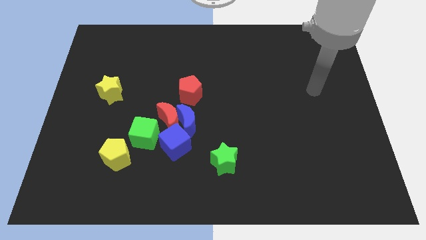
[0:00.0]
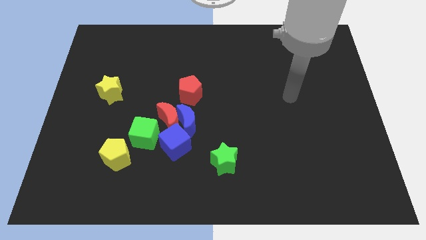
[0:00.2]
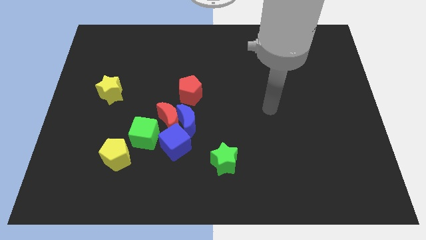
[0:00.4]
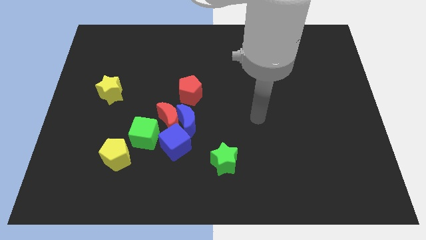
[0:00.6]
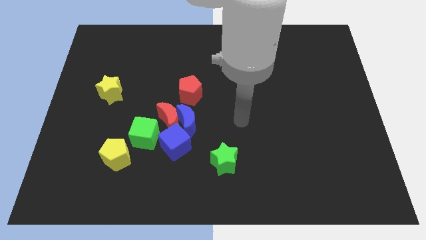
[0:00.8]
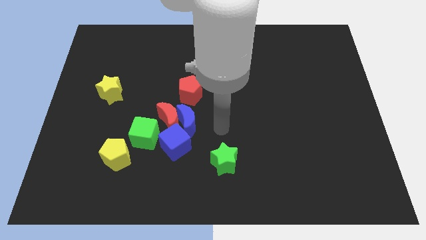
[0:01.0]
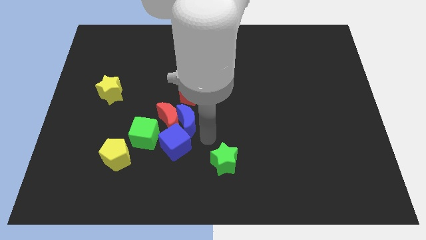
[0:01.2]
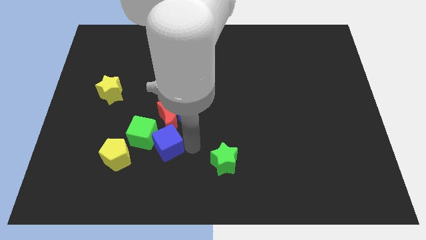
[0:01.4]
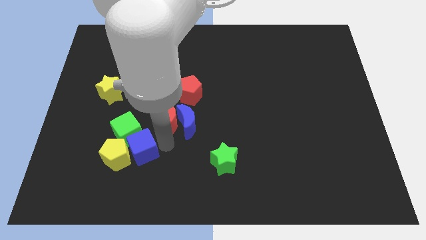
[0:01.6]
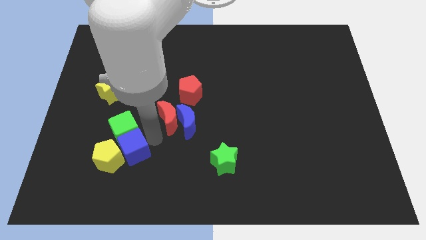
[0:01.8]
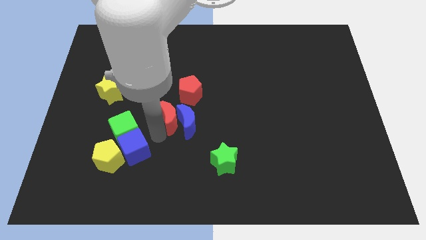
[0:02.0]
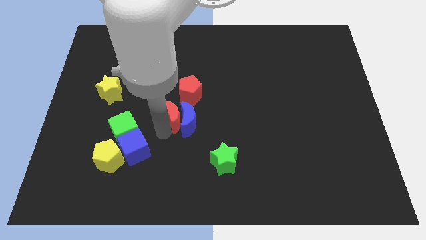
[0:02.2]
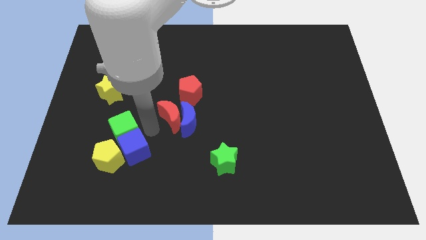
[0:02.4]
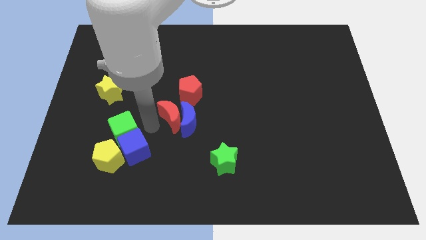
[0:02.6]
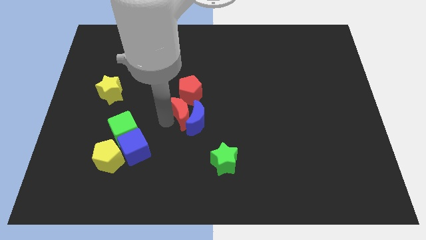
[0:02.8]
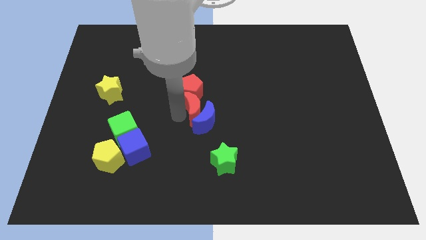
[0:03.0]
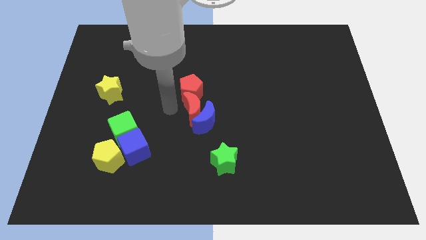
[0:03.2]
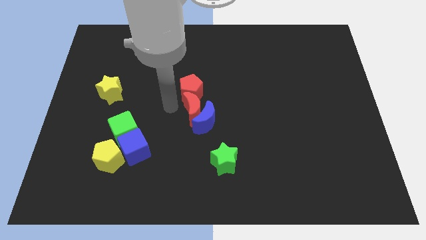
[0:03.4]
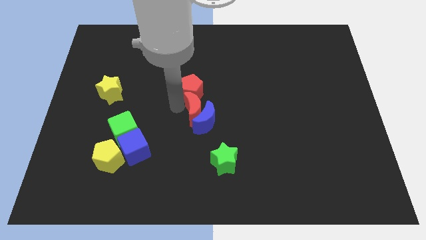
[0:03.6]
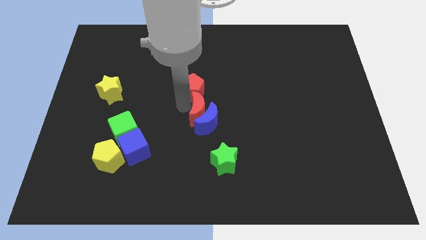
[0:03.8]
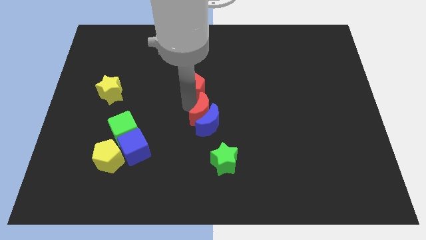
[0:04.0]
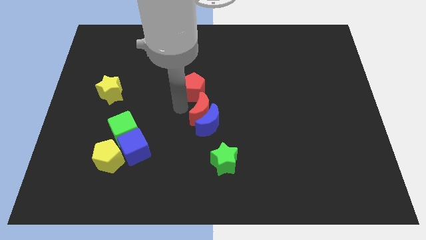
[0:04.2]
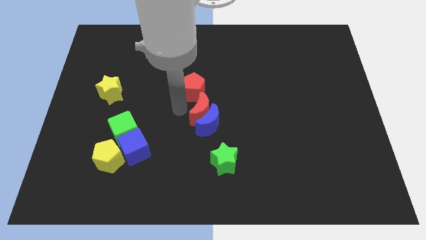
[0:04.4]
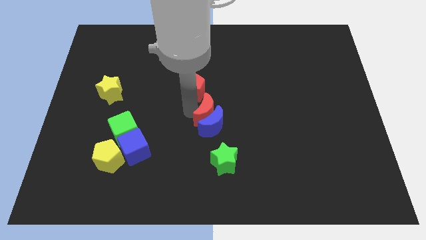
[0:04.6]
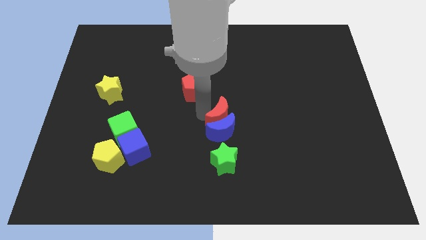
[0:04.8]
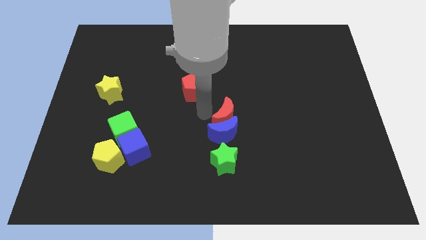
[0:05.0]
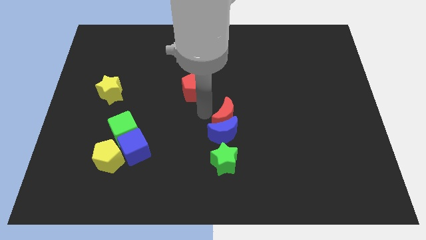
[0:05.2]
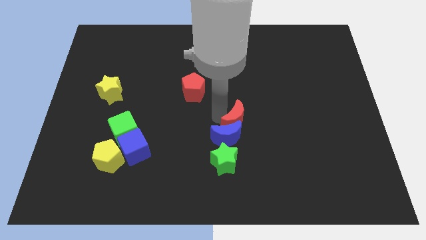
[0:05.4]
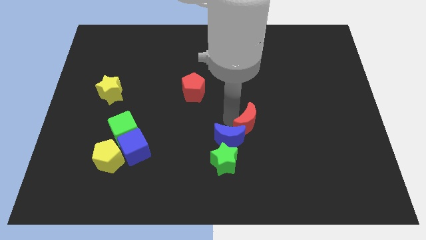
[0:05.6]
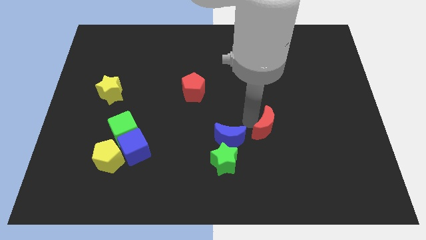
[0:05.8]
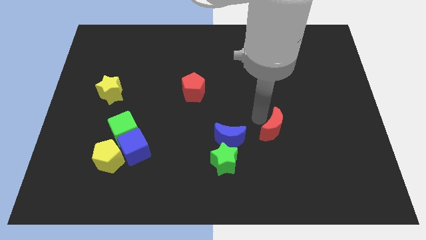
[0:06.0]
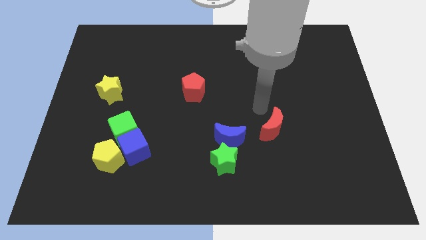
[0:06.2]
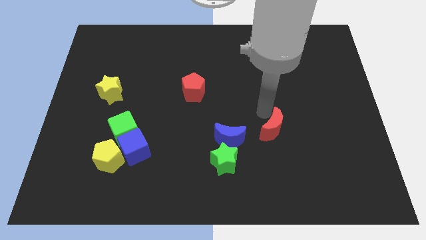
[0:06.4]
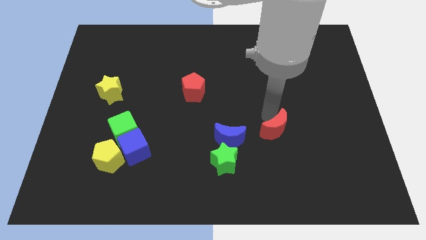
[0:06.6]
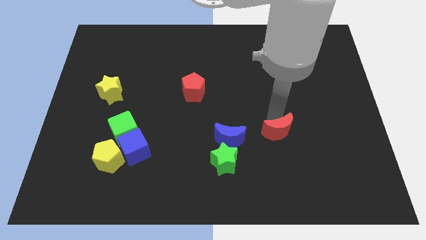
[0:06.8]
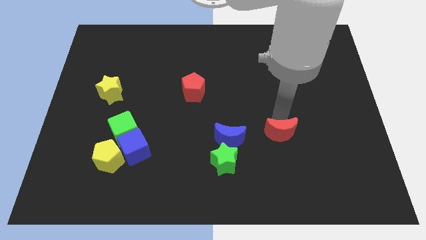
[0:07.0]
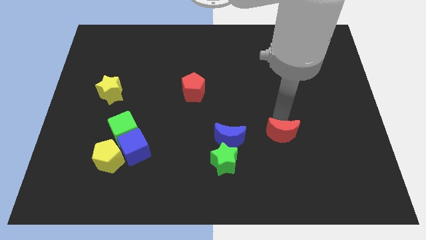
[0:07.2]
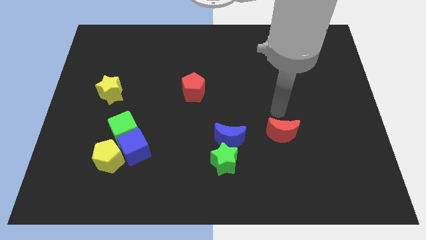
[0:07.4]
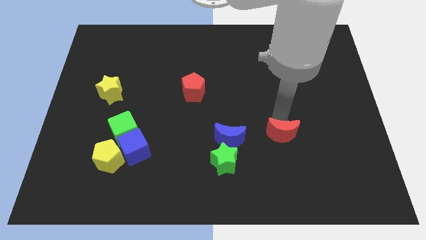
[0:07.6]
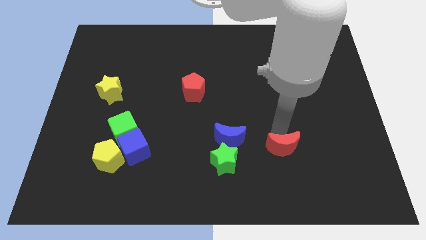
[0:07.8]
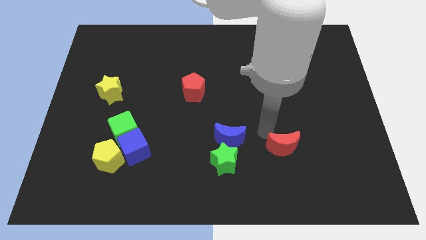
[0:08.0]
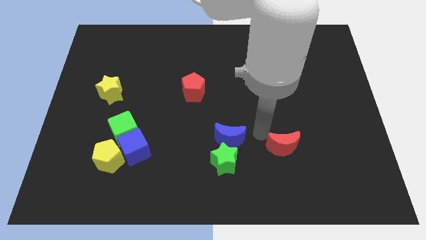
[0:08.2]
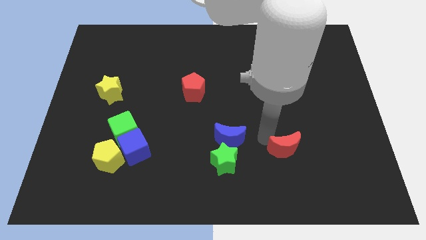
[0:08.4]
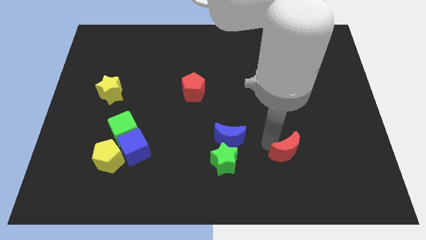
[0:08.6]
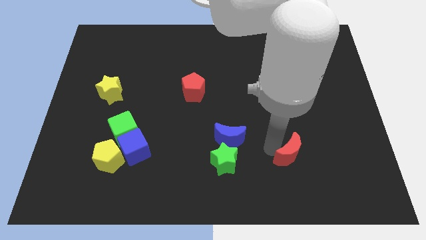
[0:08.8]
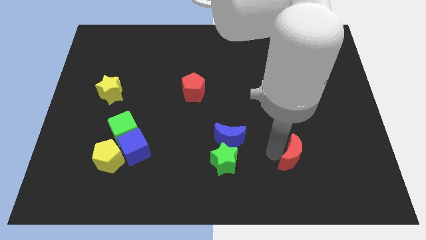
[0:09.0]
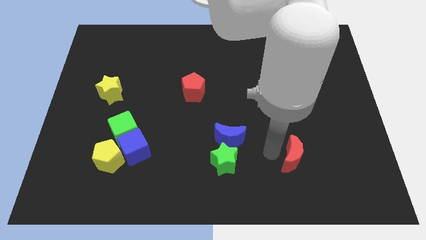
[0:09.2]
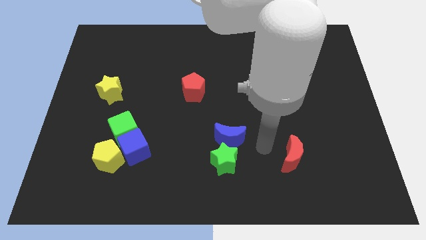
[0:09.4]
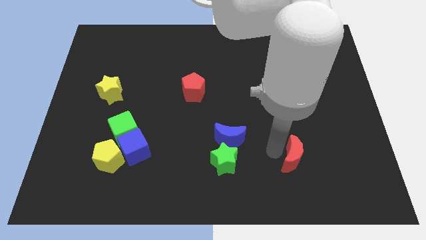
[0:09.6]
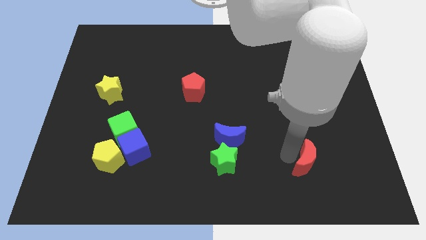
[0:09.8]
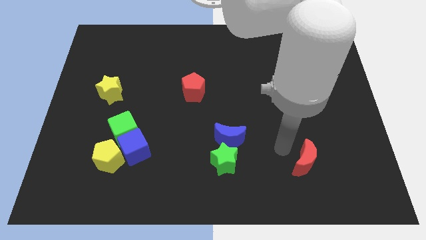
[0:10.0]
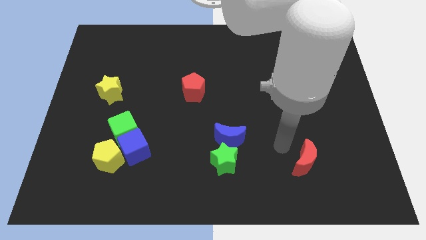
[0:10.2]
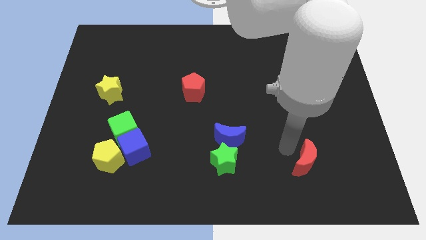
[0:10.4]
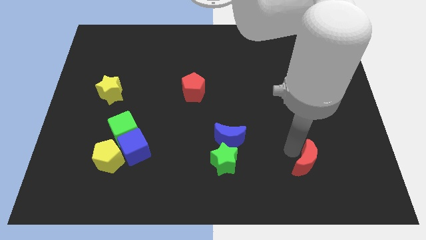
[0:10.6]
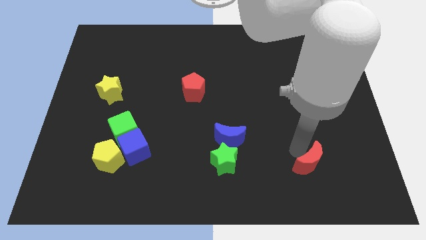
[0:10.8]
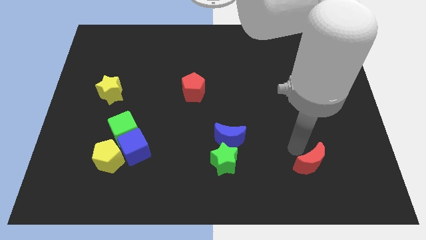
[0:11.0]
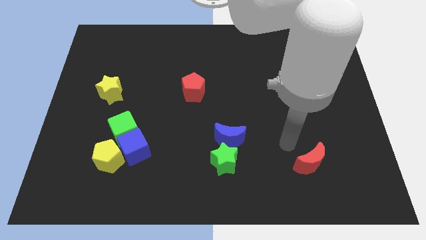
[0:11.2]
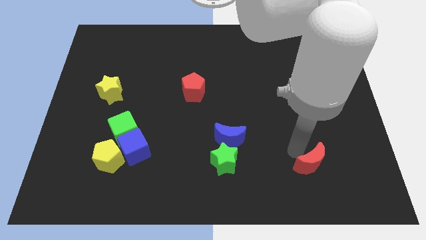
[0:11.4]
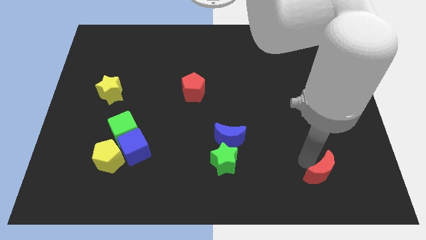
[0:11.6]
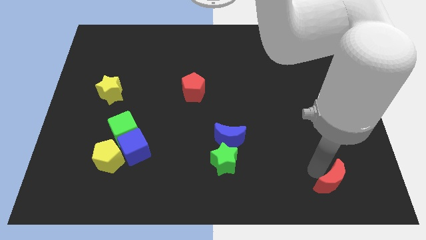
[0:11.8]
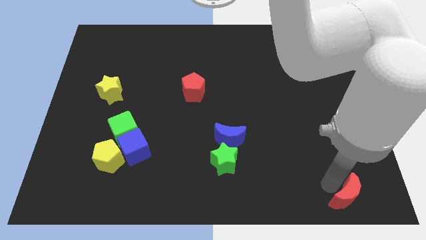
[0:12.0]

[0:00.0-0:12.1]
push the red moon to the bottom right

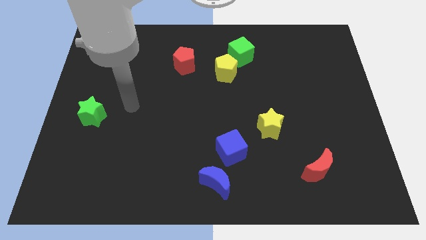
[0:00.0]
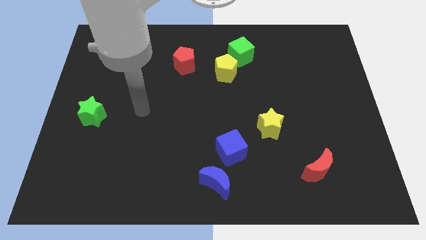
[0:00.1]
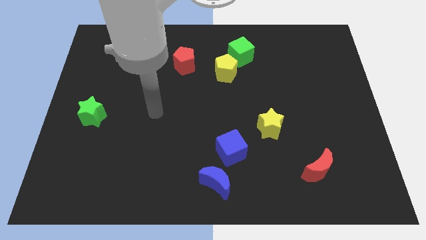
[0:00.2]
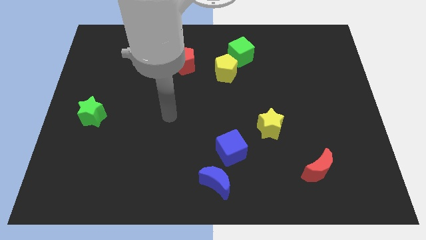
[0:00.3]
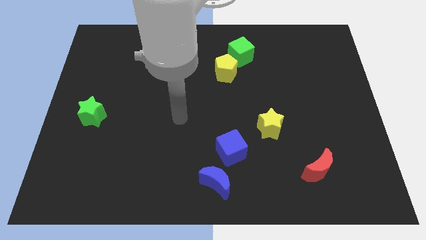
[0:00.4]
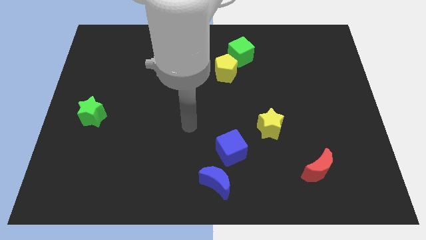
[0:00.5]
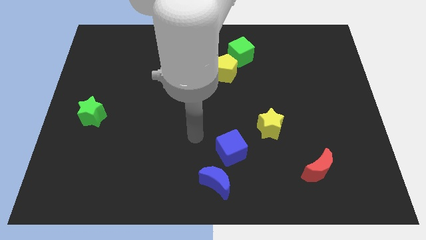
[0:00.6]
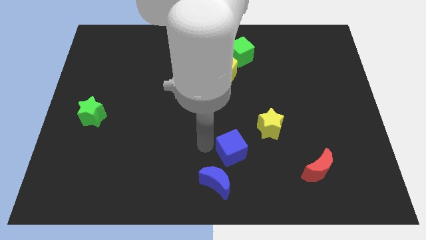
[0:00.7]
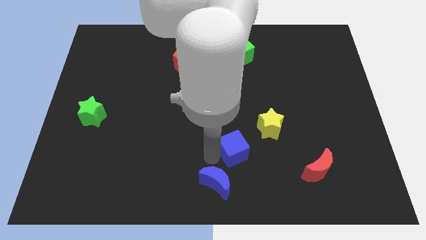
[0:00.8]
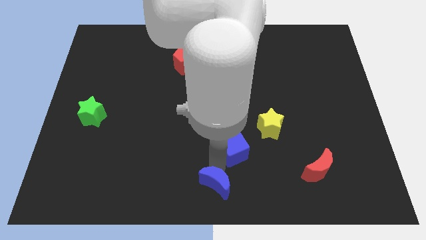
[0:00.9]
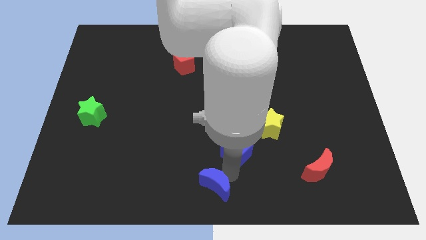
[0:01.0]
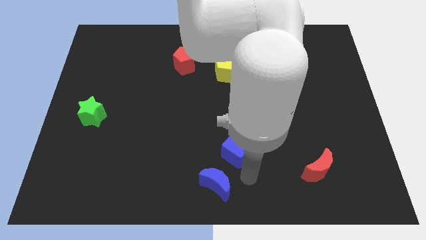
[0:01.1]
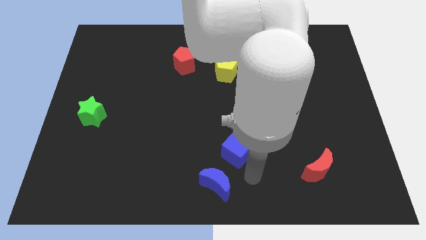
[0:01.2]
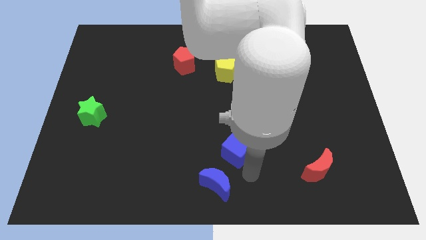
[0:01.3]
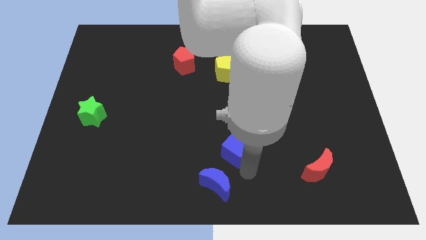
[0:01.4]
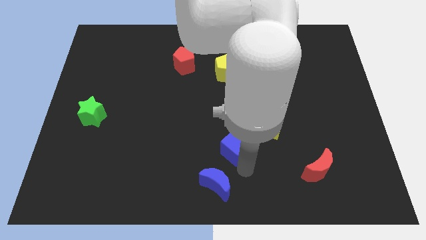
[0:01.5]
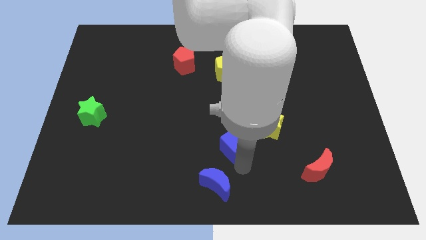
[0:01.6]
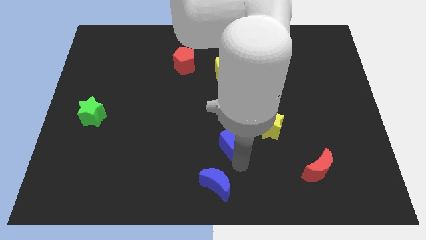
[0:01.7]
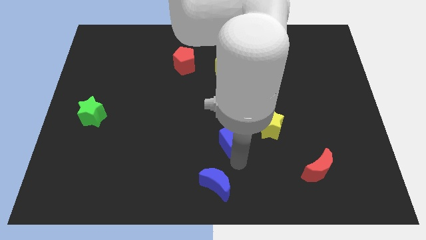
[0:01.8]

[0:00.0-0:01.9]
put the blue cube to the center
